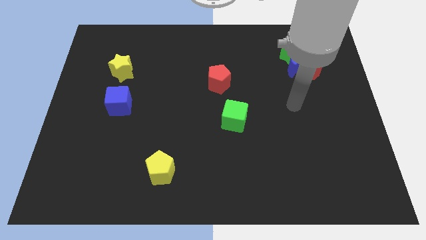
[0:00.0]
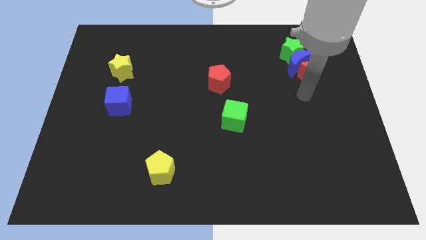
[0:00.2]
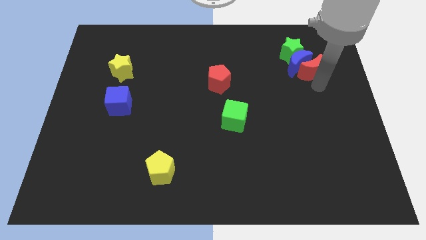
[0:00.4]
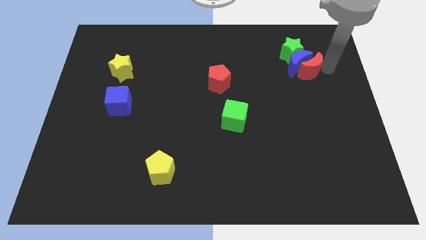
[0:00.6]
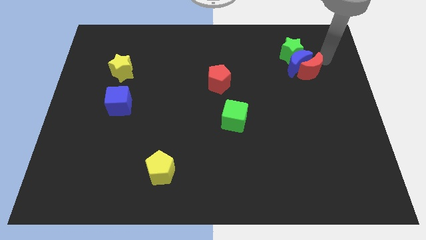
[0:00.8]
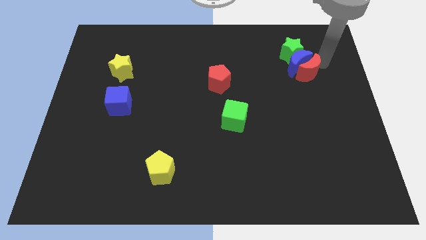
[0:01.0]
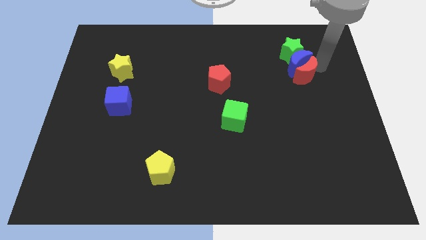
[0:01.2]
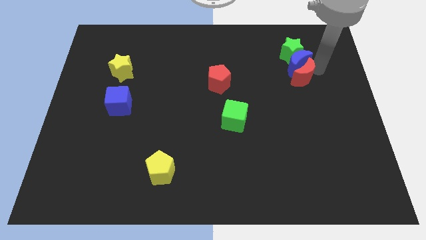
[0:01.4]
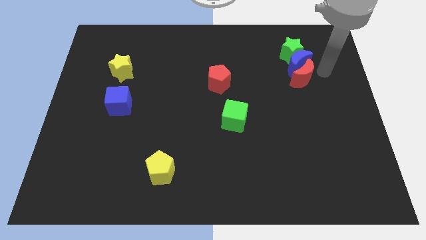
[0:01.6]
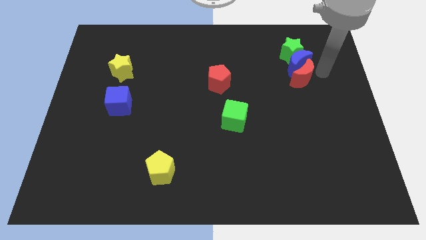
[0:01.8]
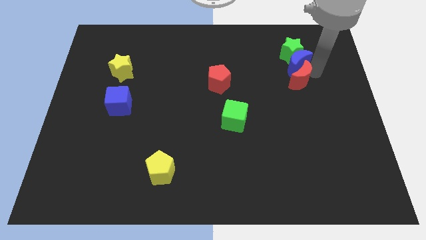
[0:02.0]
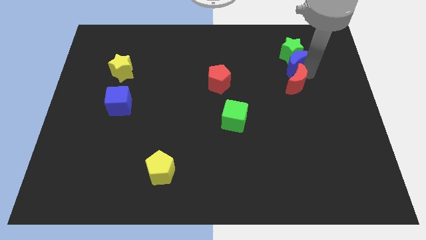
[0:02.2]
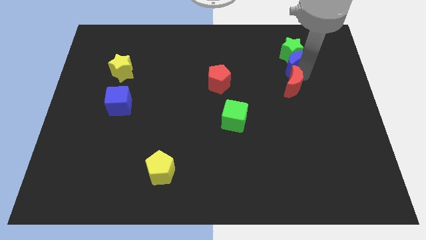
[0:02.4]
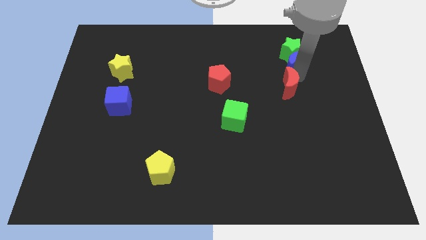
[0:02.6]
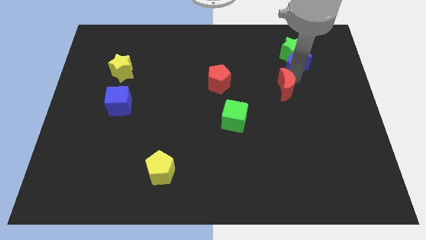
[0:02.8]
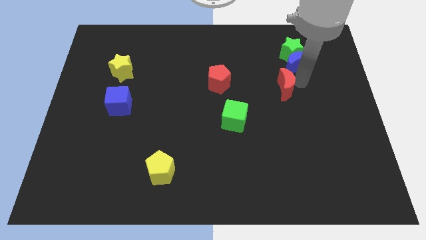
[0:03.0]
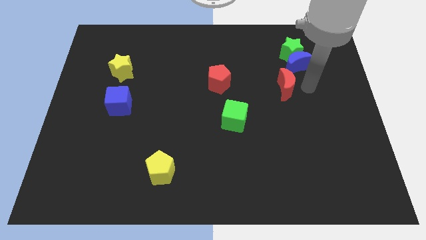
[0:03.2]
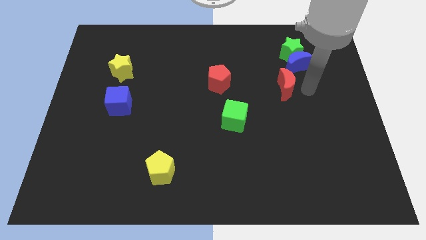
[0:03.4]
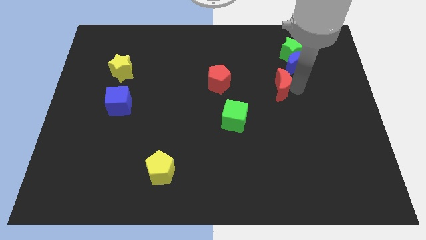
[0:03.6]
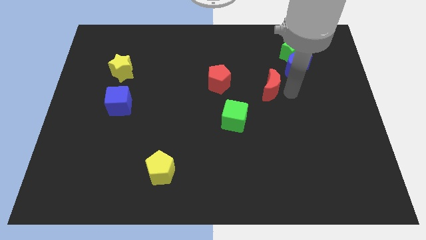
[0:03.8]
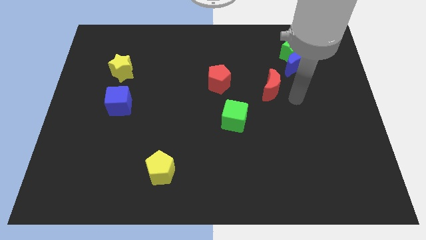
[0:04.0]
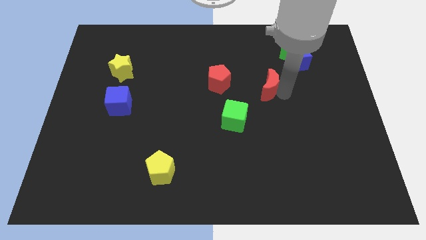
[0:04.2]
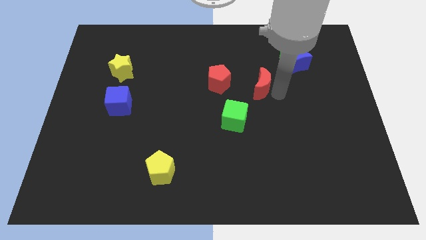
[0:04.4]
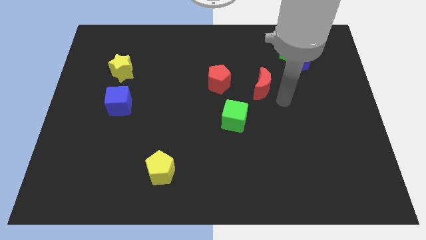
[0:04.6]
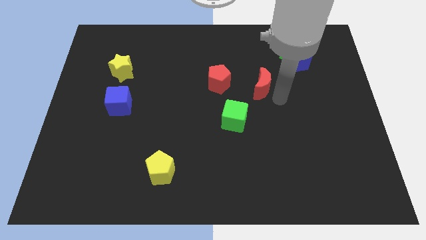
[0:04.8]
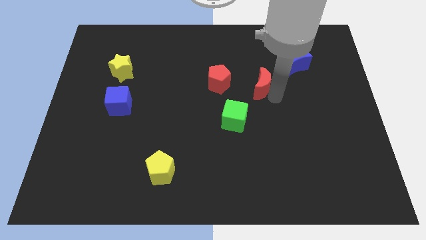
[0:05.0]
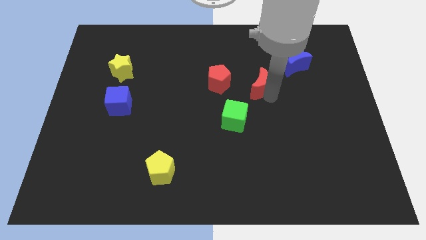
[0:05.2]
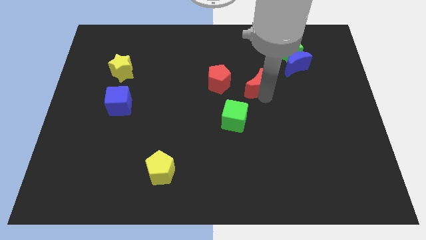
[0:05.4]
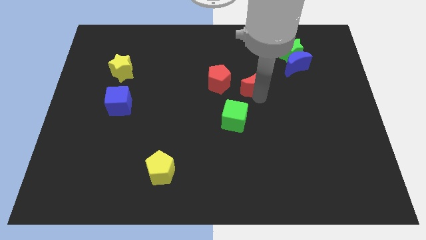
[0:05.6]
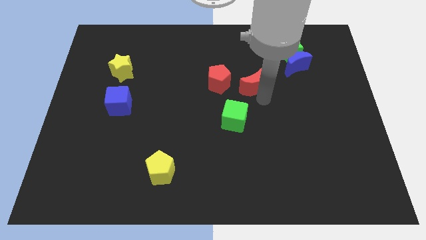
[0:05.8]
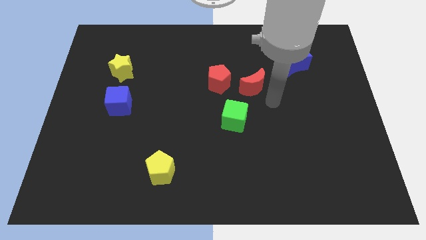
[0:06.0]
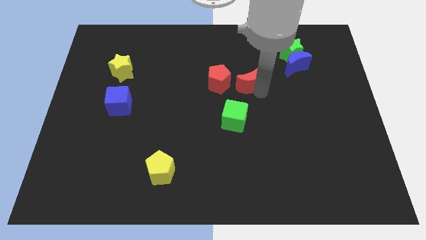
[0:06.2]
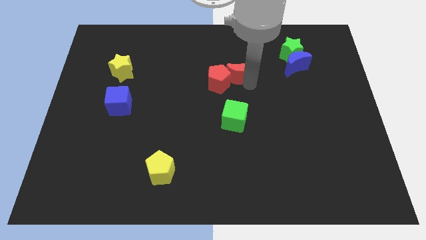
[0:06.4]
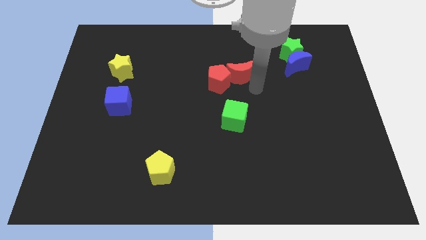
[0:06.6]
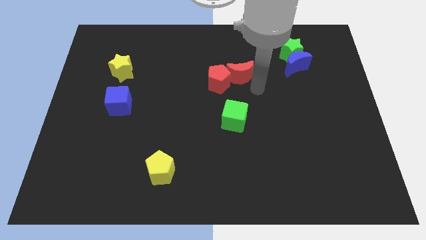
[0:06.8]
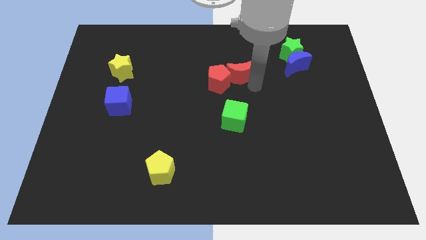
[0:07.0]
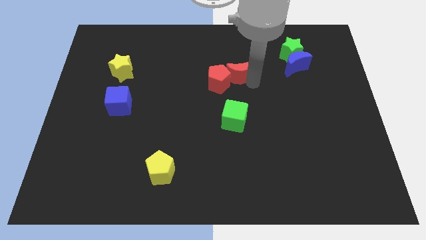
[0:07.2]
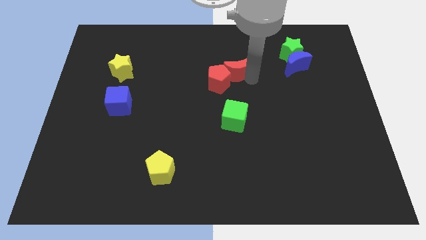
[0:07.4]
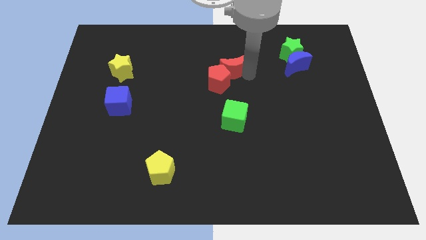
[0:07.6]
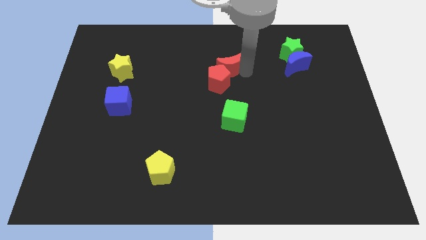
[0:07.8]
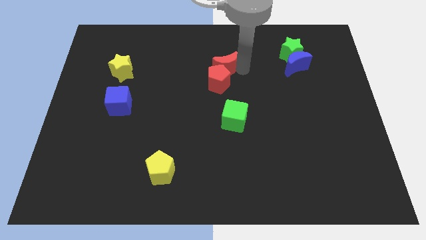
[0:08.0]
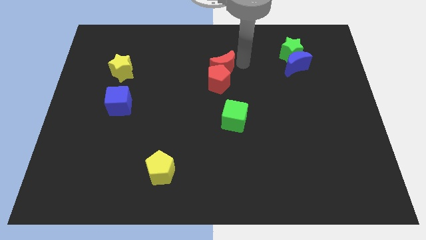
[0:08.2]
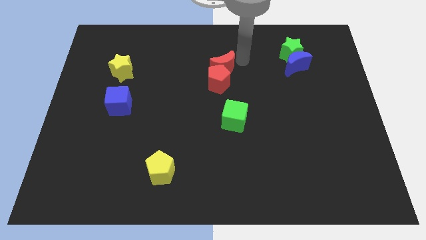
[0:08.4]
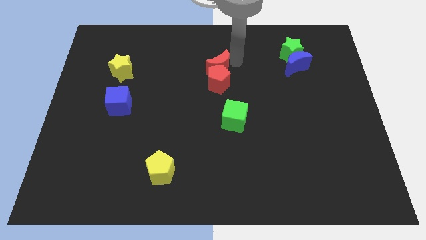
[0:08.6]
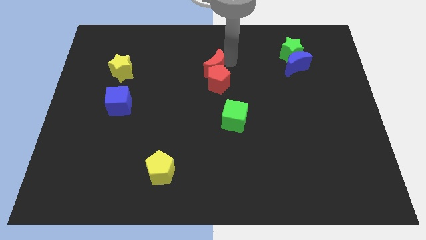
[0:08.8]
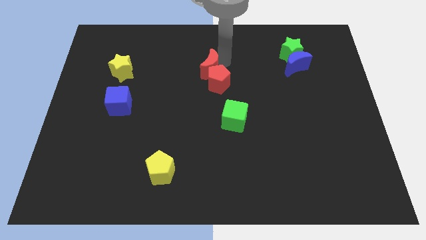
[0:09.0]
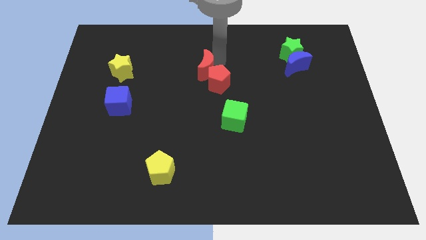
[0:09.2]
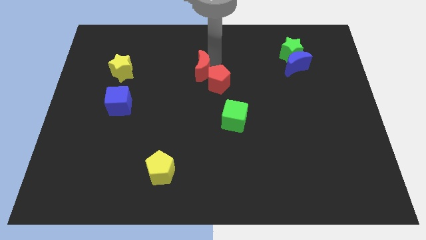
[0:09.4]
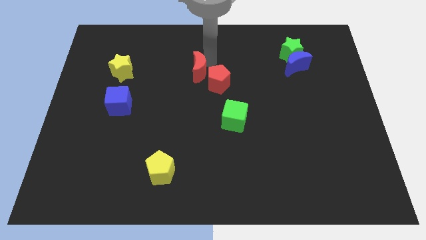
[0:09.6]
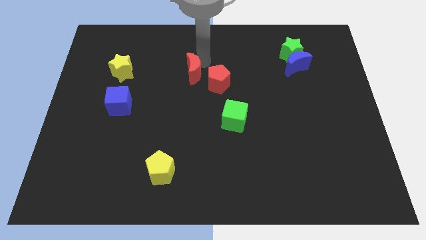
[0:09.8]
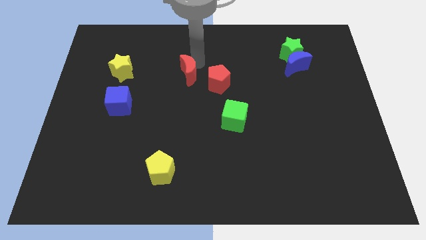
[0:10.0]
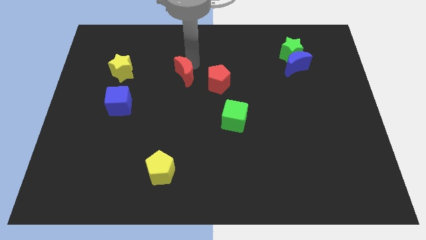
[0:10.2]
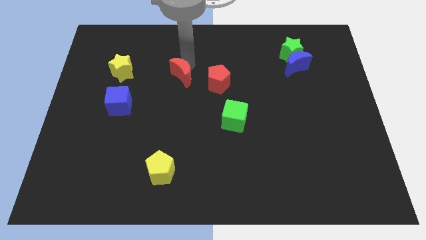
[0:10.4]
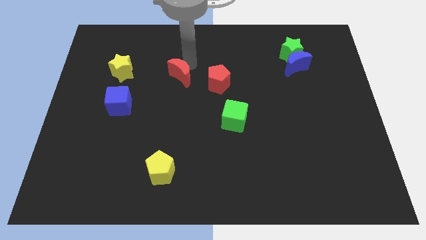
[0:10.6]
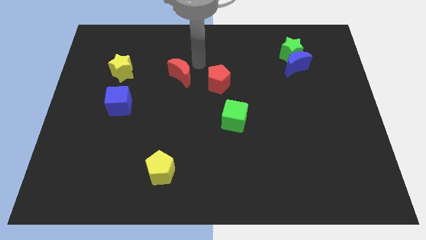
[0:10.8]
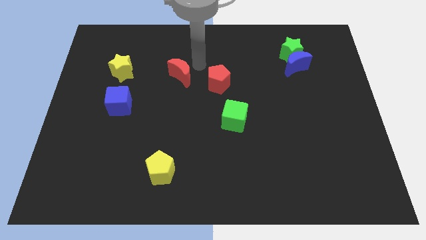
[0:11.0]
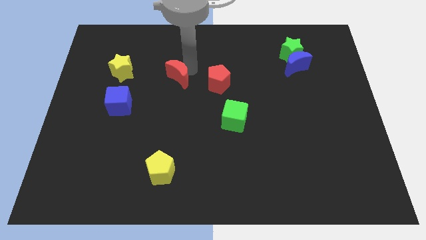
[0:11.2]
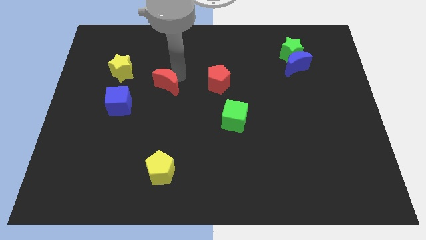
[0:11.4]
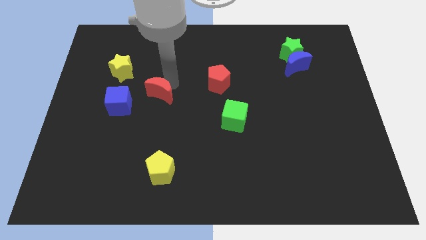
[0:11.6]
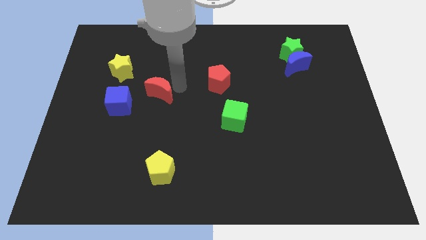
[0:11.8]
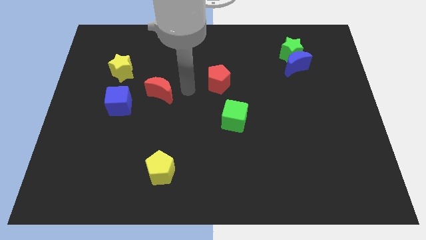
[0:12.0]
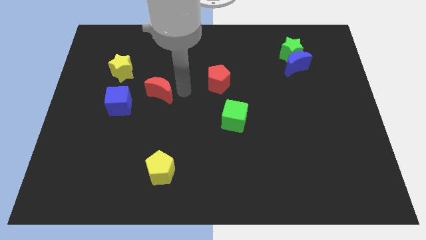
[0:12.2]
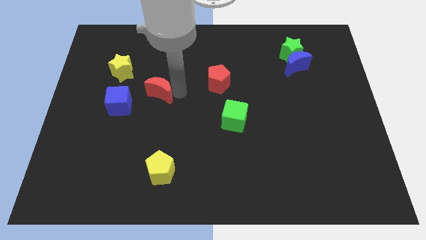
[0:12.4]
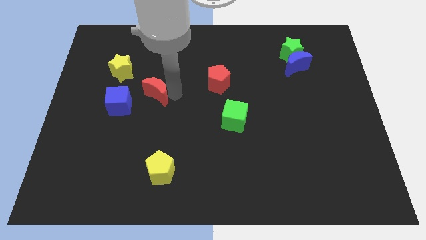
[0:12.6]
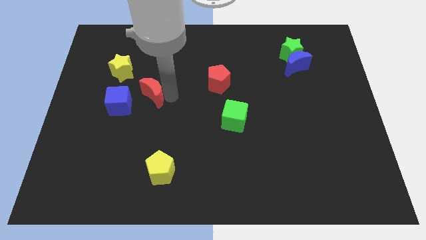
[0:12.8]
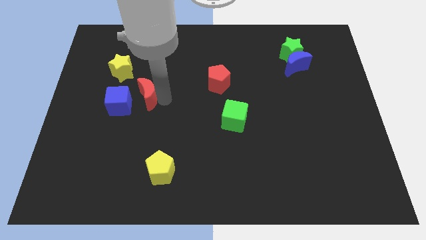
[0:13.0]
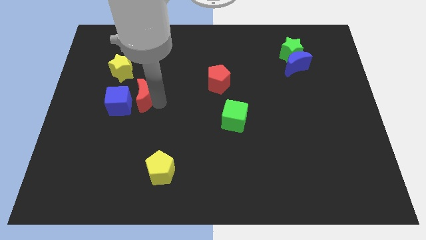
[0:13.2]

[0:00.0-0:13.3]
slide the red moon towards the blue cube
